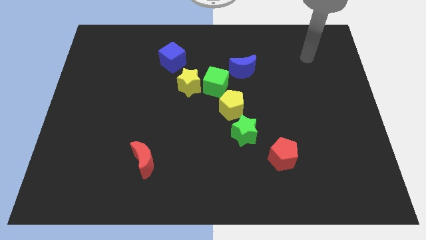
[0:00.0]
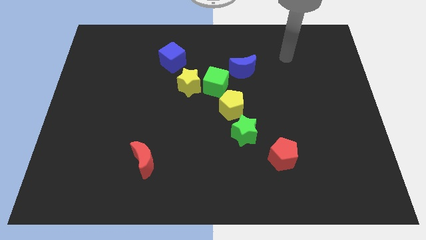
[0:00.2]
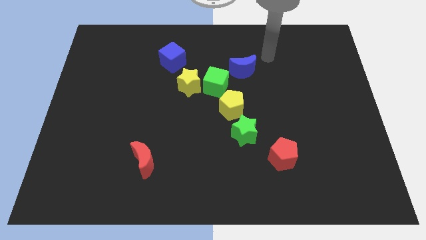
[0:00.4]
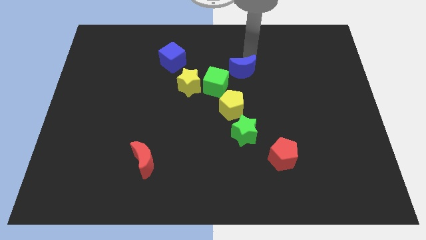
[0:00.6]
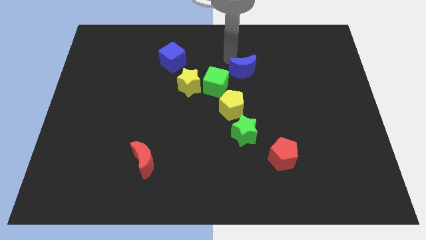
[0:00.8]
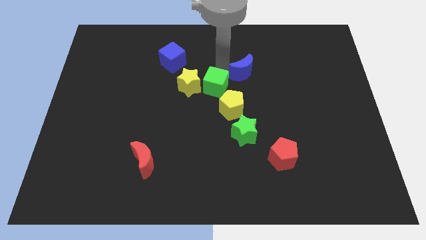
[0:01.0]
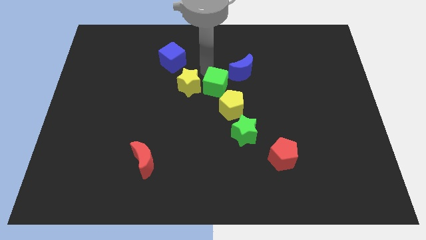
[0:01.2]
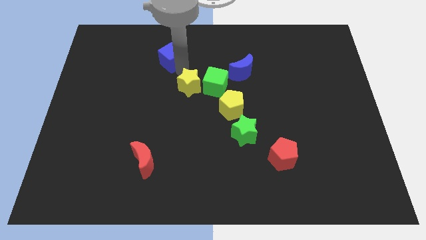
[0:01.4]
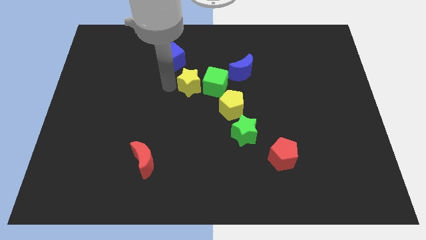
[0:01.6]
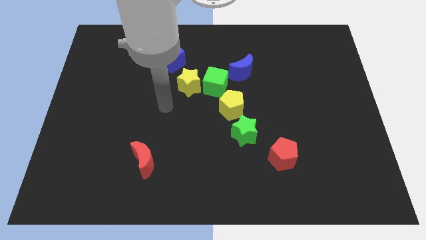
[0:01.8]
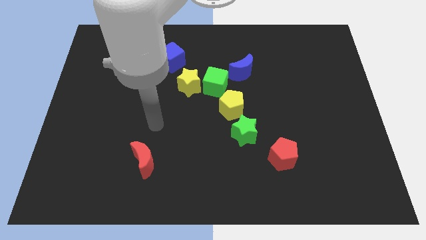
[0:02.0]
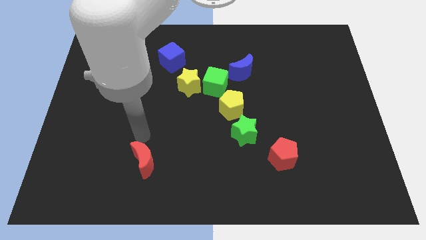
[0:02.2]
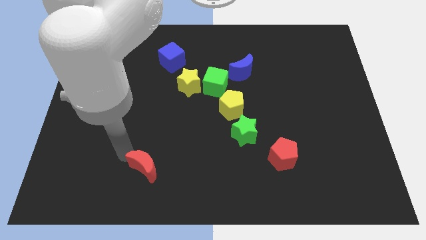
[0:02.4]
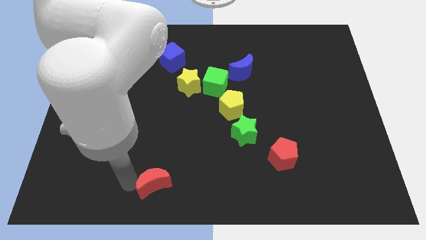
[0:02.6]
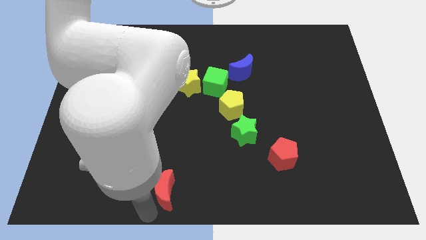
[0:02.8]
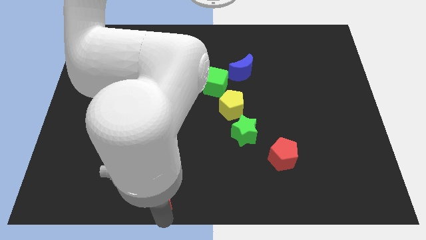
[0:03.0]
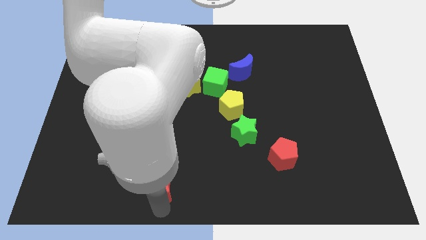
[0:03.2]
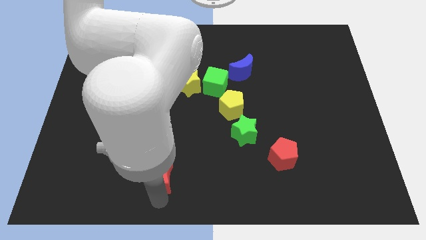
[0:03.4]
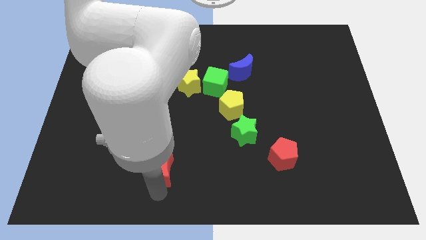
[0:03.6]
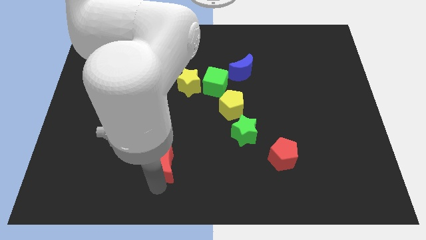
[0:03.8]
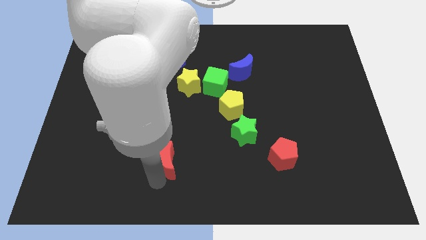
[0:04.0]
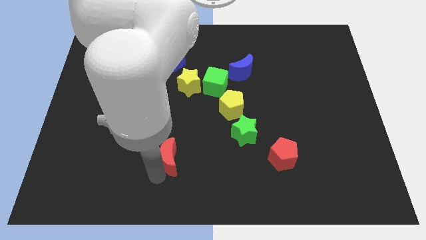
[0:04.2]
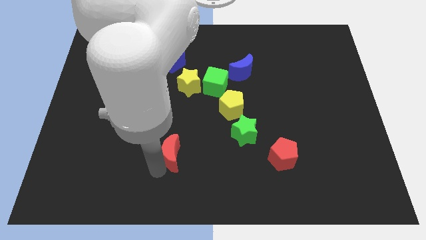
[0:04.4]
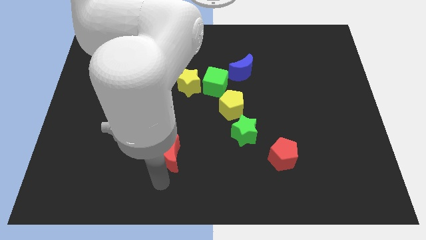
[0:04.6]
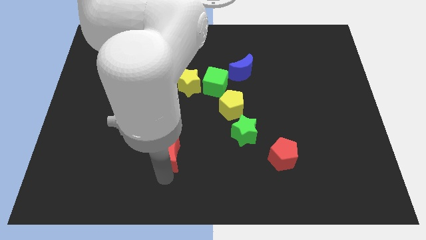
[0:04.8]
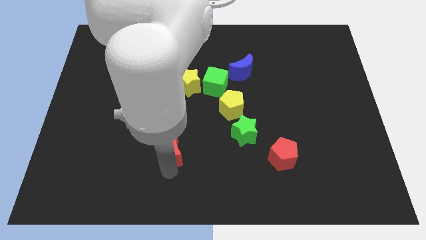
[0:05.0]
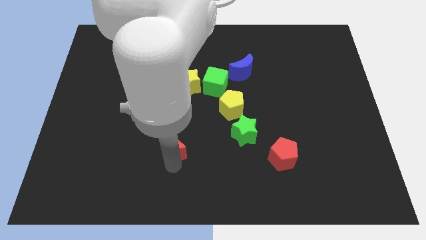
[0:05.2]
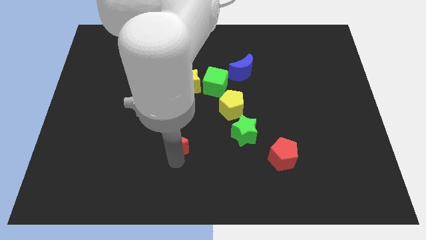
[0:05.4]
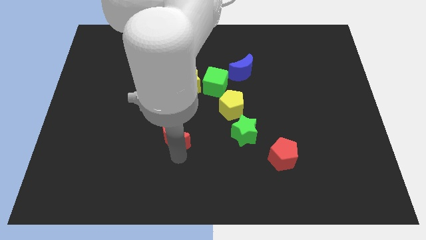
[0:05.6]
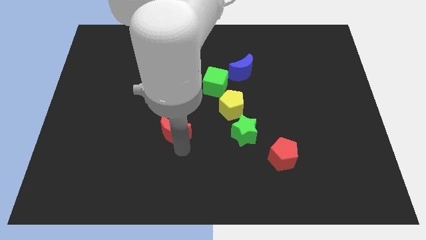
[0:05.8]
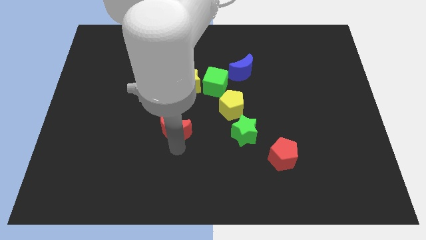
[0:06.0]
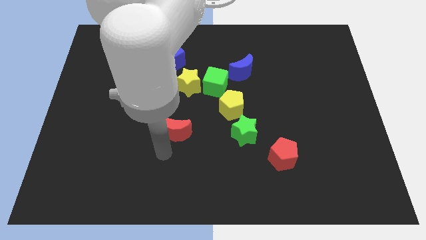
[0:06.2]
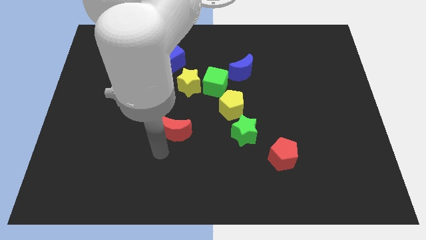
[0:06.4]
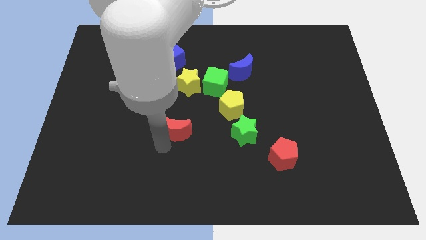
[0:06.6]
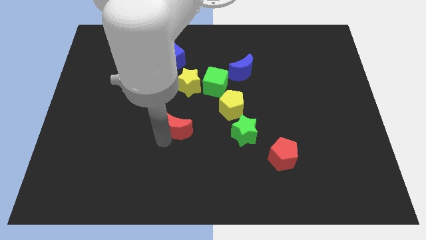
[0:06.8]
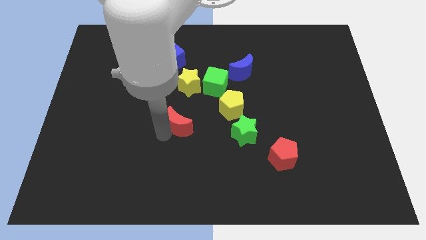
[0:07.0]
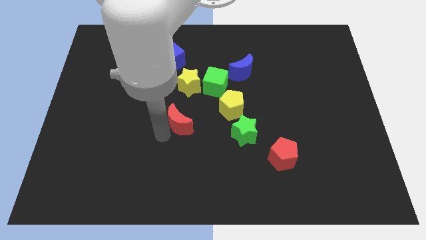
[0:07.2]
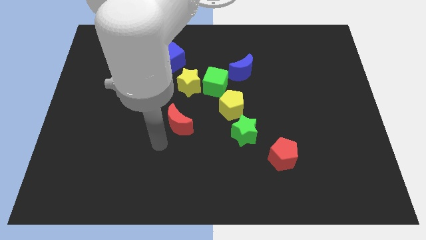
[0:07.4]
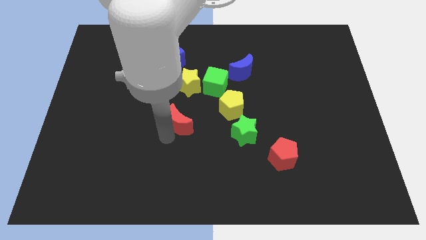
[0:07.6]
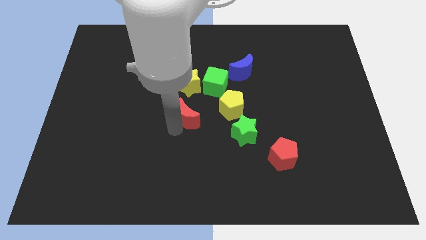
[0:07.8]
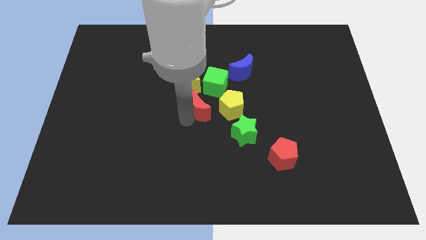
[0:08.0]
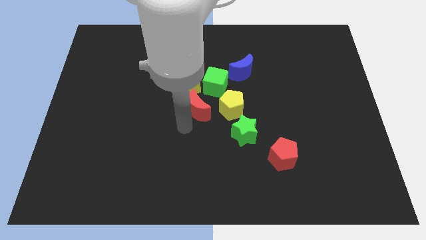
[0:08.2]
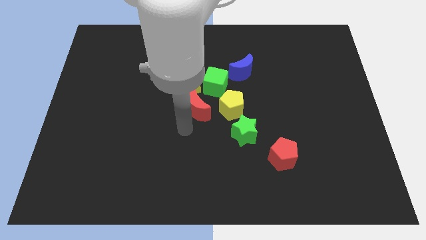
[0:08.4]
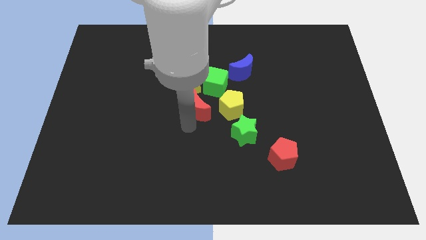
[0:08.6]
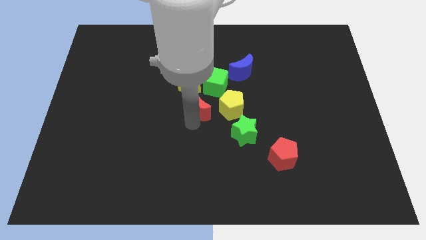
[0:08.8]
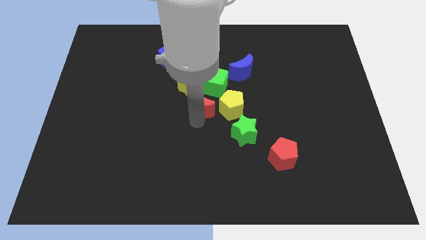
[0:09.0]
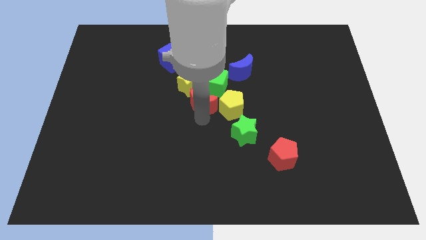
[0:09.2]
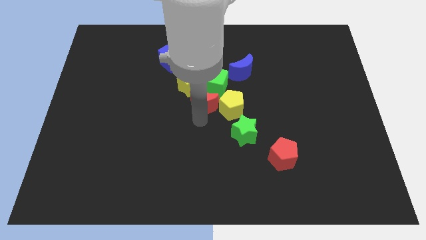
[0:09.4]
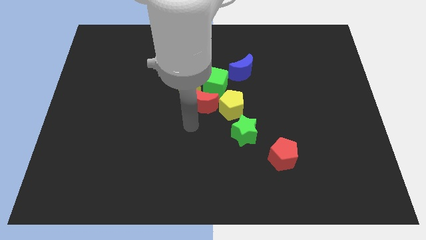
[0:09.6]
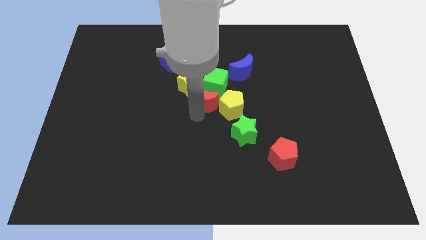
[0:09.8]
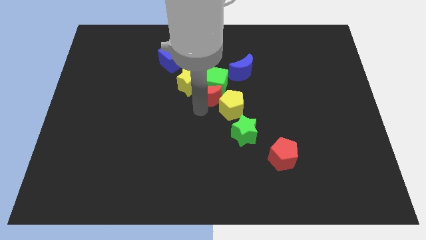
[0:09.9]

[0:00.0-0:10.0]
slide the red moon next to the green cube

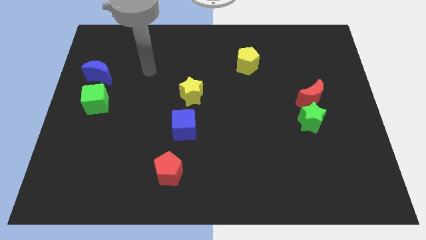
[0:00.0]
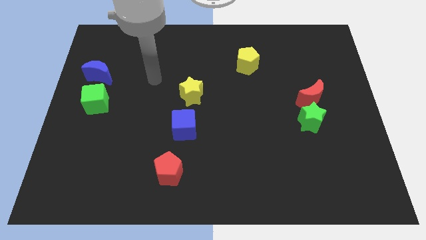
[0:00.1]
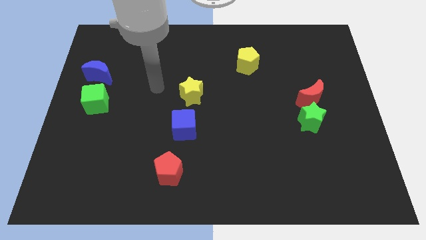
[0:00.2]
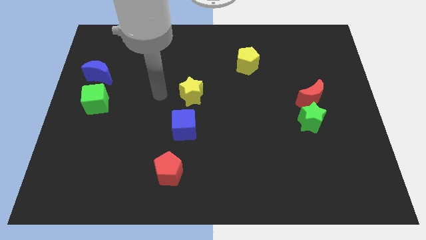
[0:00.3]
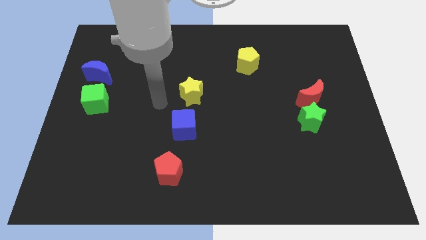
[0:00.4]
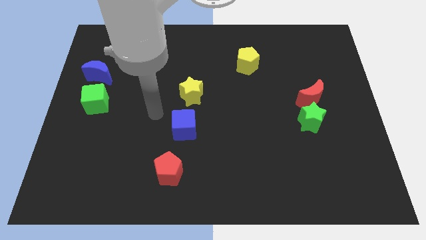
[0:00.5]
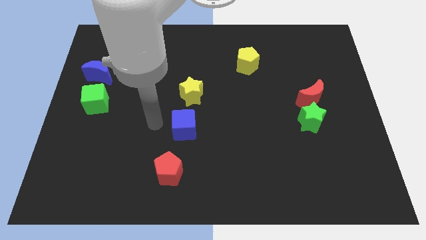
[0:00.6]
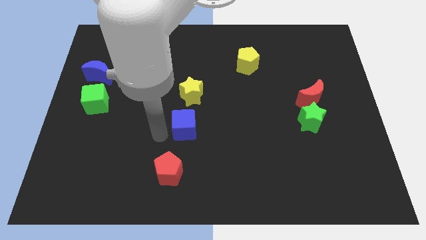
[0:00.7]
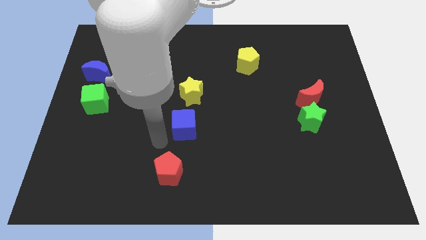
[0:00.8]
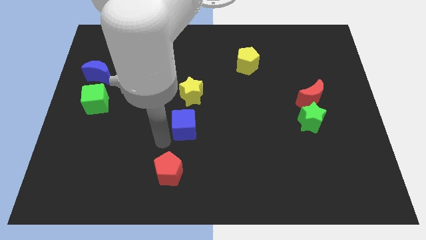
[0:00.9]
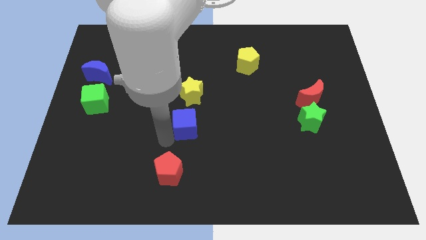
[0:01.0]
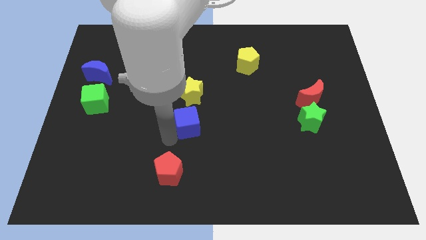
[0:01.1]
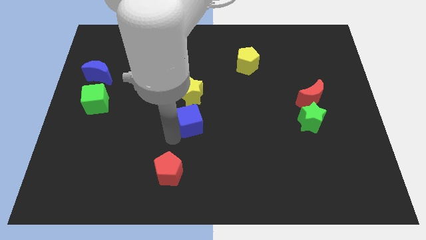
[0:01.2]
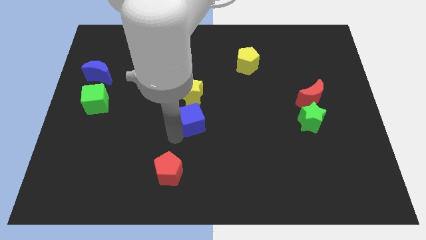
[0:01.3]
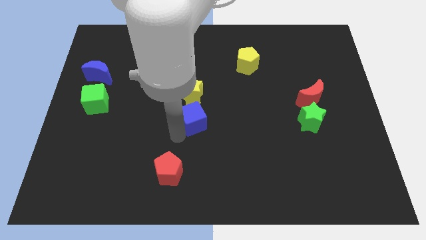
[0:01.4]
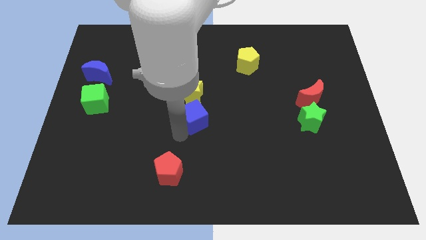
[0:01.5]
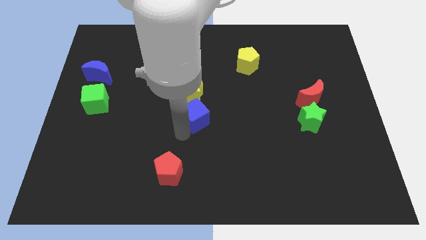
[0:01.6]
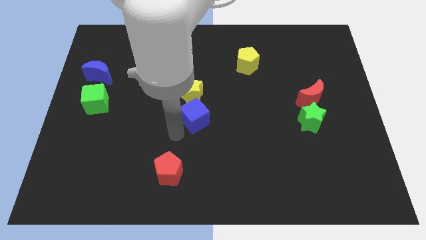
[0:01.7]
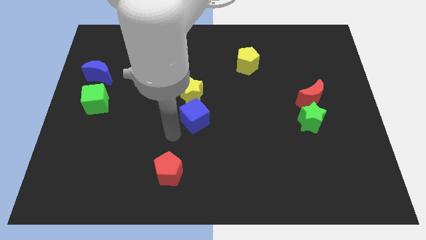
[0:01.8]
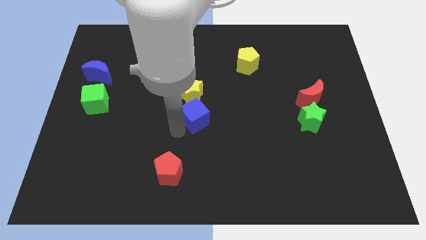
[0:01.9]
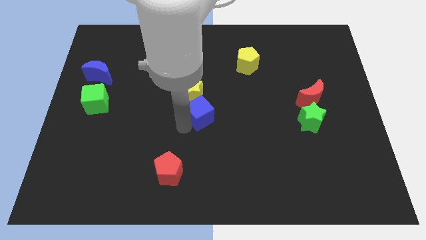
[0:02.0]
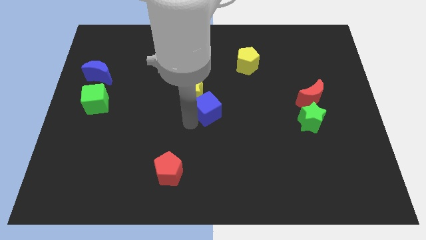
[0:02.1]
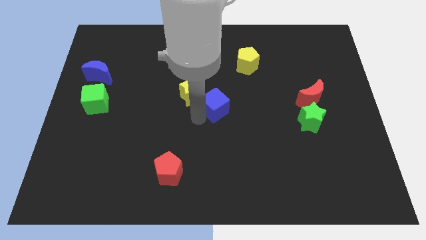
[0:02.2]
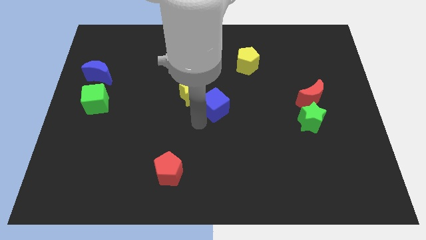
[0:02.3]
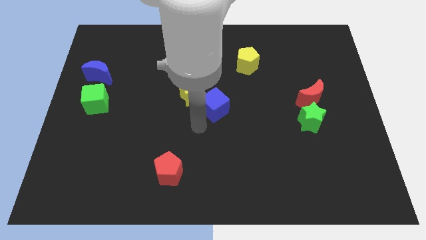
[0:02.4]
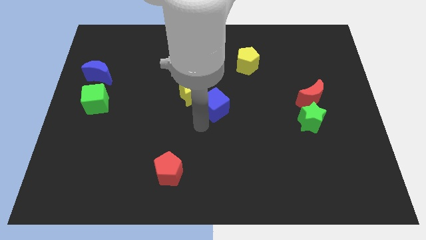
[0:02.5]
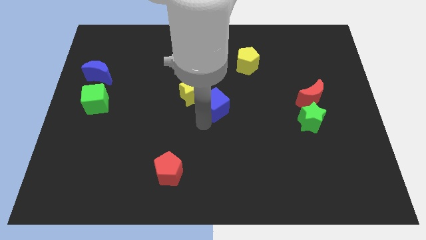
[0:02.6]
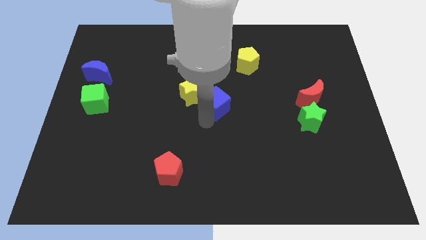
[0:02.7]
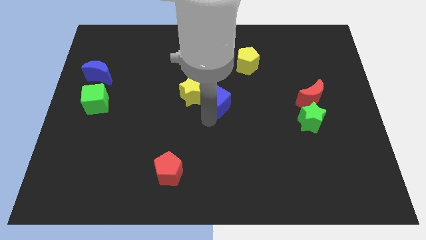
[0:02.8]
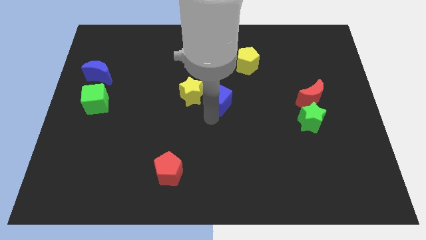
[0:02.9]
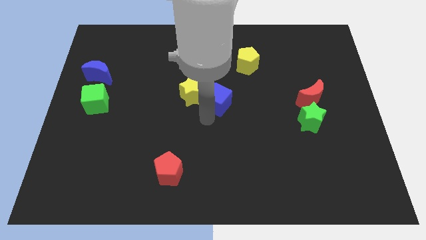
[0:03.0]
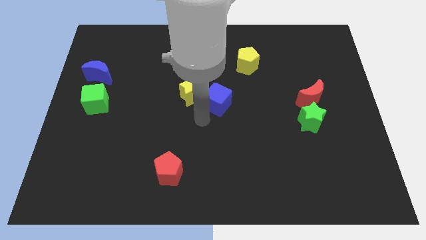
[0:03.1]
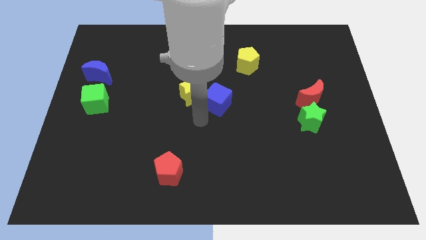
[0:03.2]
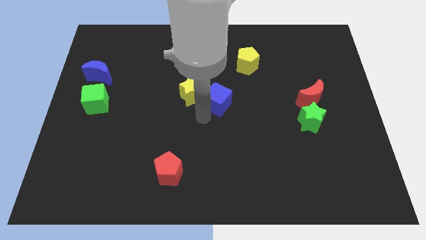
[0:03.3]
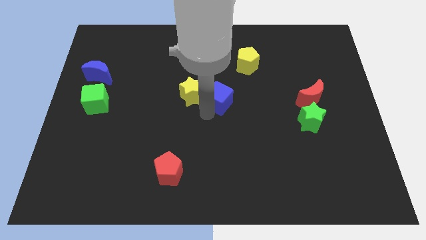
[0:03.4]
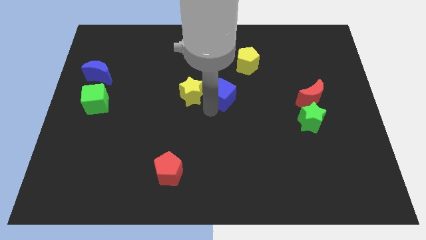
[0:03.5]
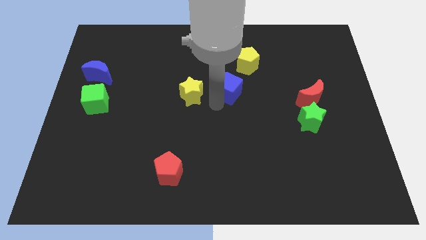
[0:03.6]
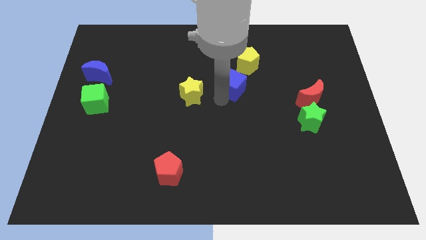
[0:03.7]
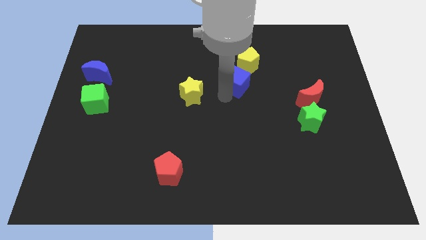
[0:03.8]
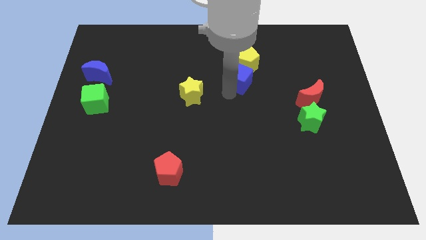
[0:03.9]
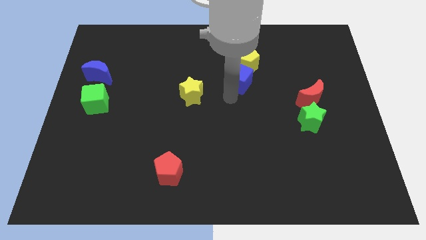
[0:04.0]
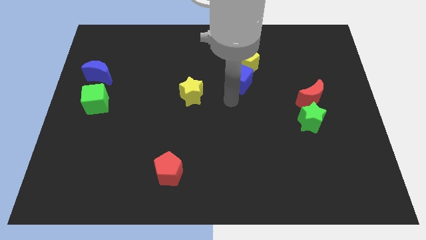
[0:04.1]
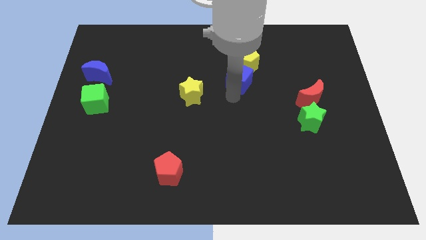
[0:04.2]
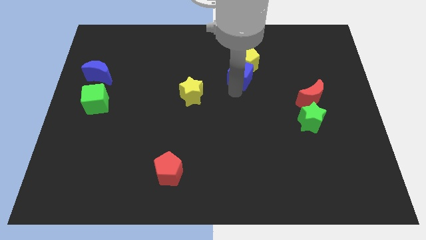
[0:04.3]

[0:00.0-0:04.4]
put the blue cube close to the yellow pentagon
